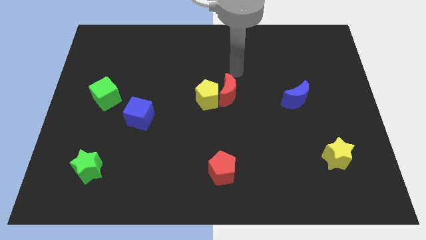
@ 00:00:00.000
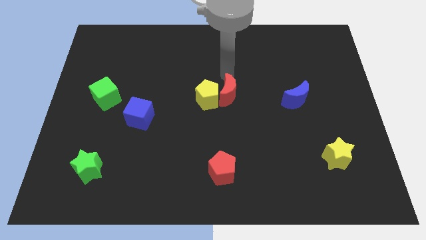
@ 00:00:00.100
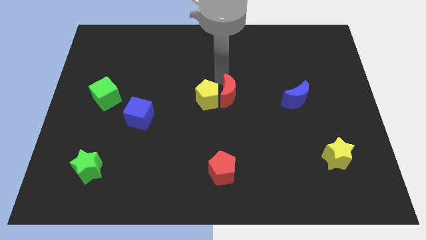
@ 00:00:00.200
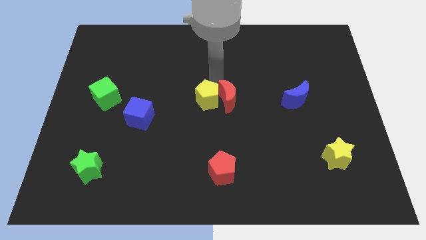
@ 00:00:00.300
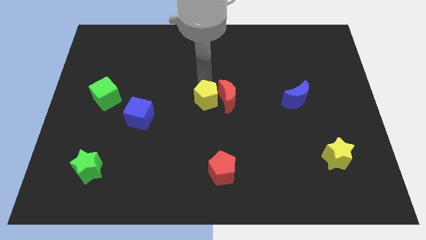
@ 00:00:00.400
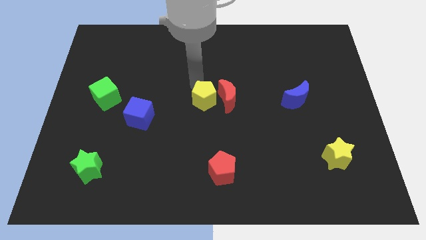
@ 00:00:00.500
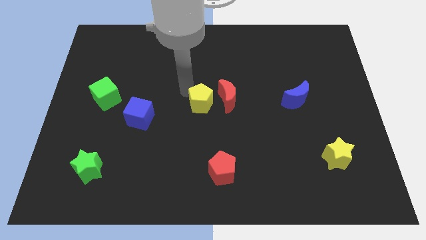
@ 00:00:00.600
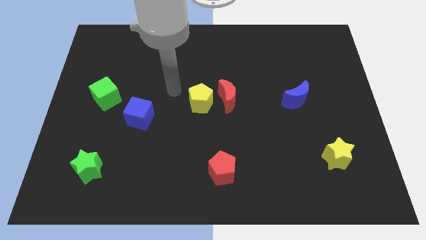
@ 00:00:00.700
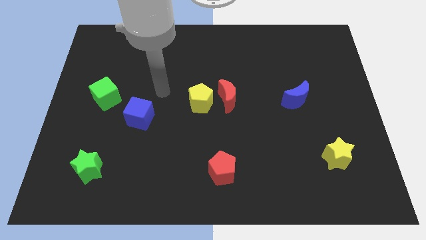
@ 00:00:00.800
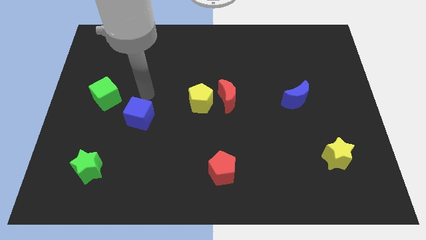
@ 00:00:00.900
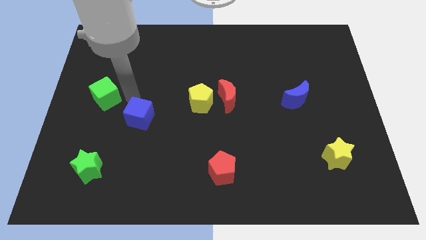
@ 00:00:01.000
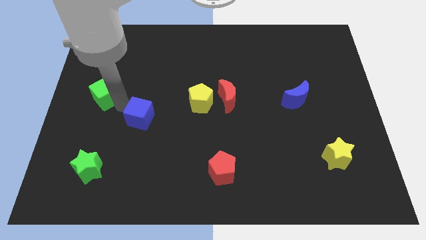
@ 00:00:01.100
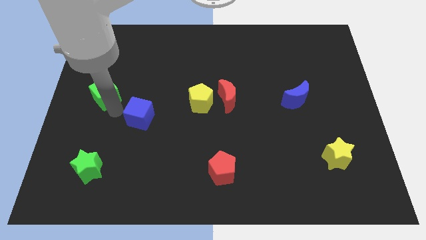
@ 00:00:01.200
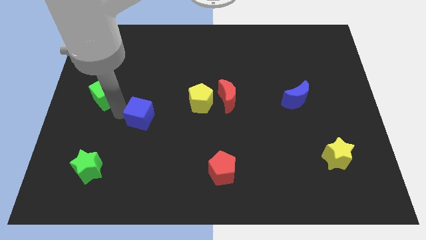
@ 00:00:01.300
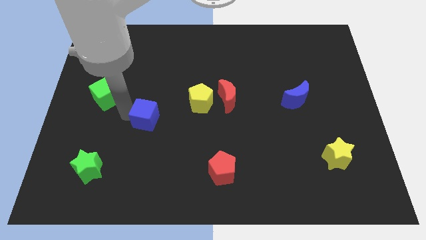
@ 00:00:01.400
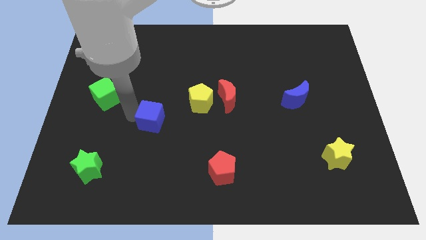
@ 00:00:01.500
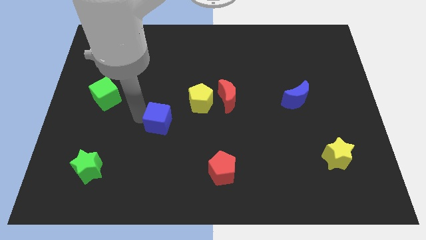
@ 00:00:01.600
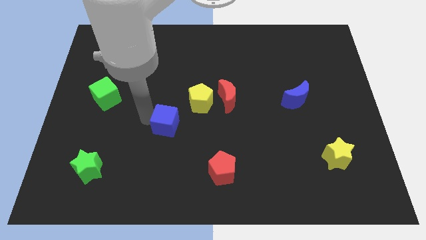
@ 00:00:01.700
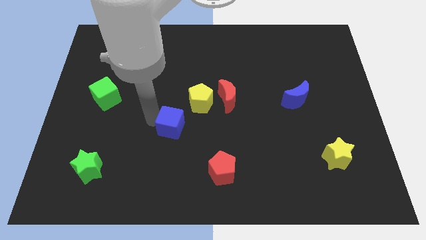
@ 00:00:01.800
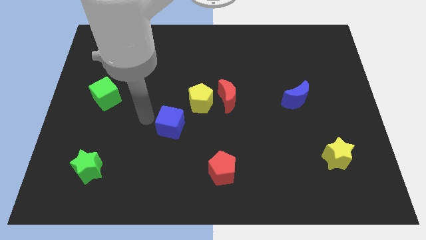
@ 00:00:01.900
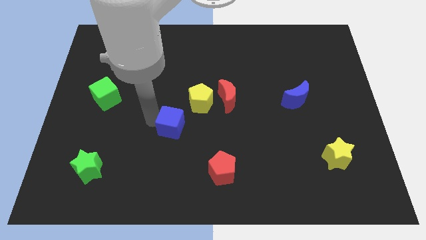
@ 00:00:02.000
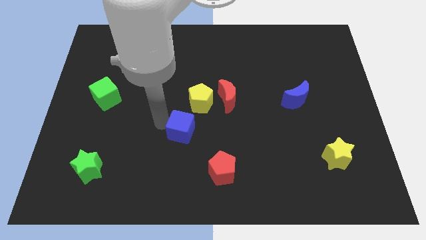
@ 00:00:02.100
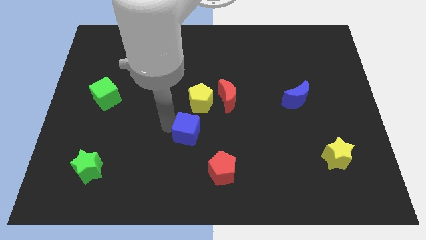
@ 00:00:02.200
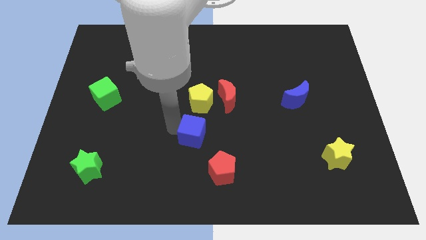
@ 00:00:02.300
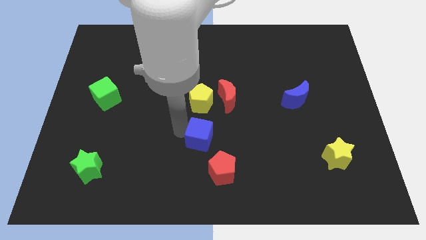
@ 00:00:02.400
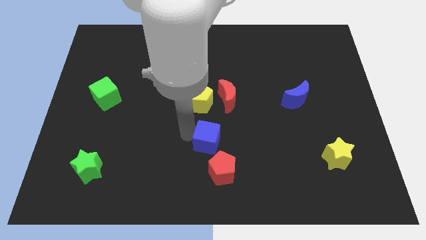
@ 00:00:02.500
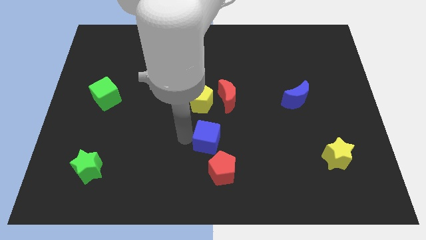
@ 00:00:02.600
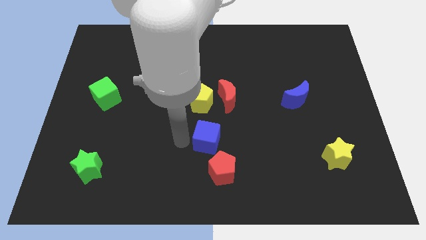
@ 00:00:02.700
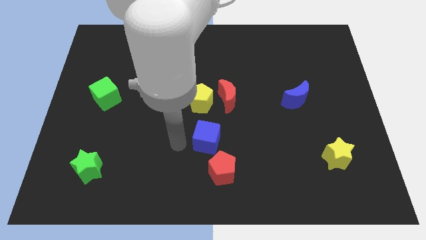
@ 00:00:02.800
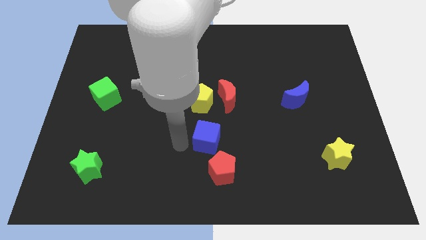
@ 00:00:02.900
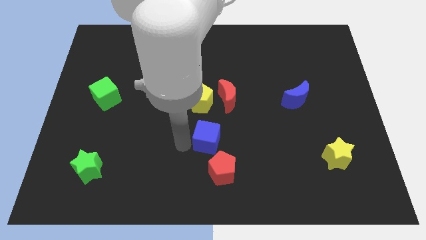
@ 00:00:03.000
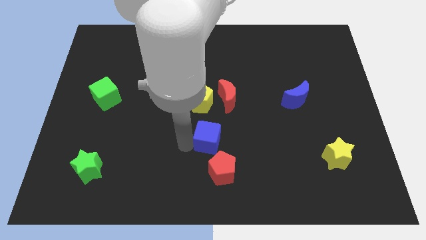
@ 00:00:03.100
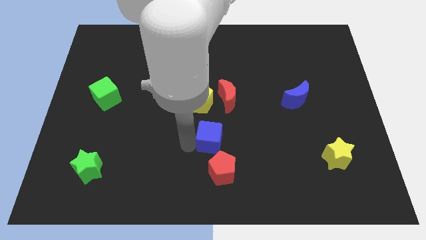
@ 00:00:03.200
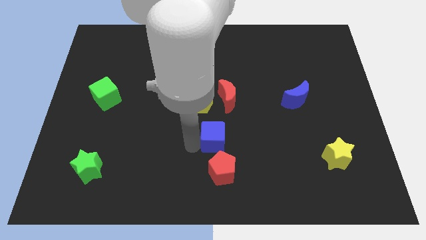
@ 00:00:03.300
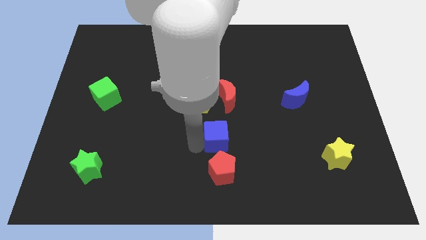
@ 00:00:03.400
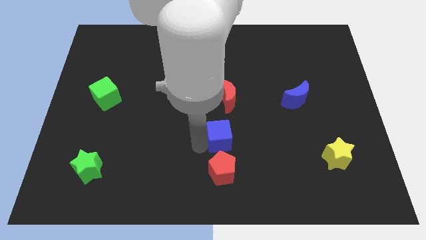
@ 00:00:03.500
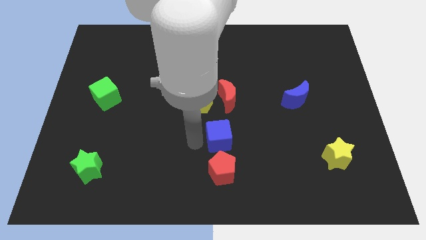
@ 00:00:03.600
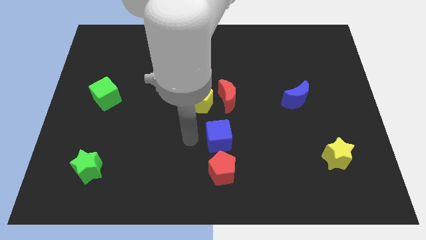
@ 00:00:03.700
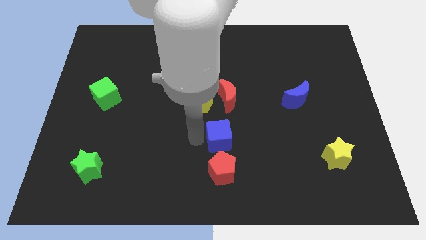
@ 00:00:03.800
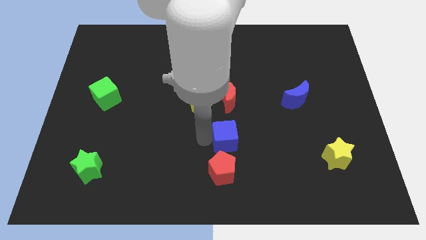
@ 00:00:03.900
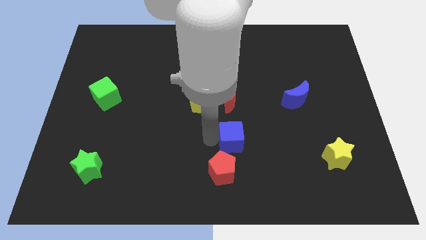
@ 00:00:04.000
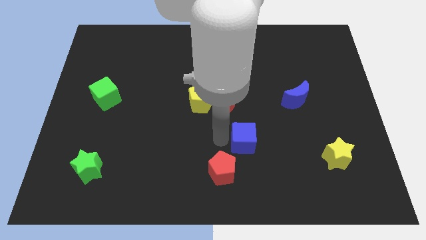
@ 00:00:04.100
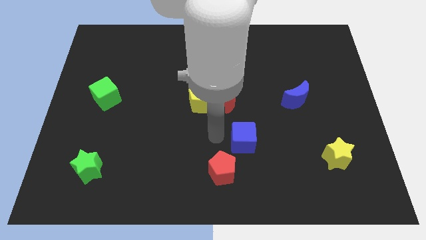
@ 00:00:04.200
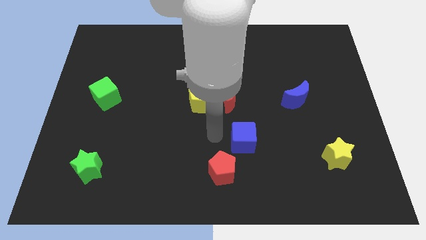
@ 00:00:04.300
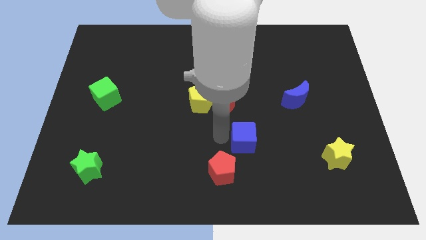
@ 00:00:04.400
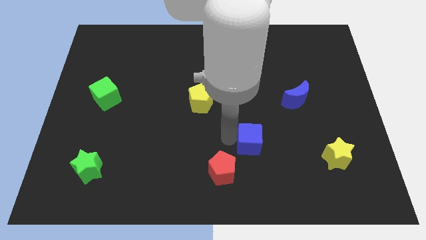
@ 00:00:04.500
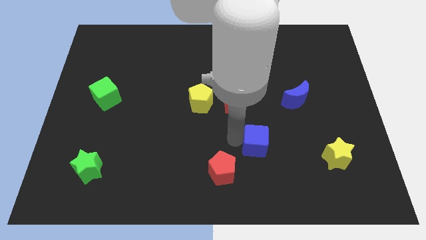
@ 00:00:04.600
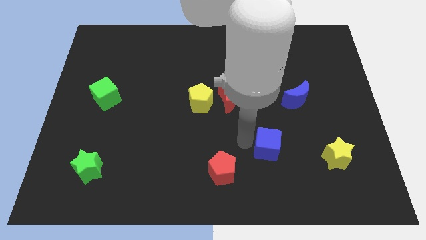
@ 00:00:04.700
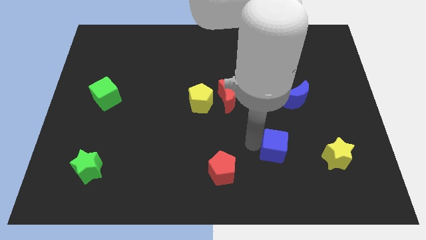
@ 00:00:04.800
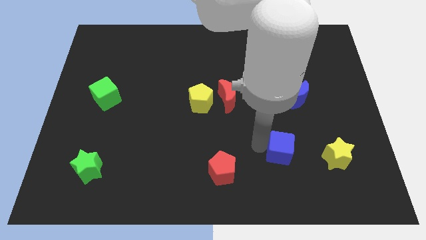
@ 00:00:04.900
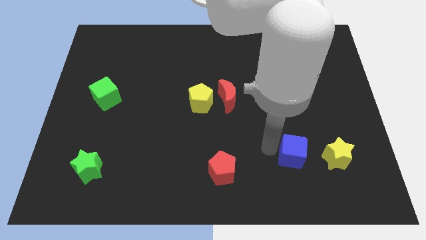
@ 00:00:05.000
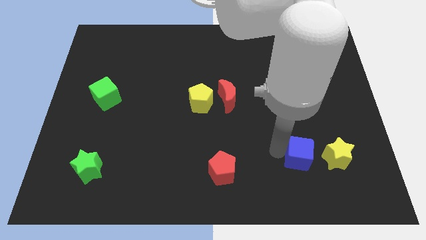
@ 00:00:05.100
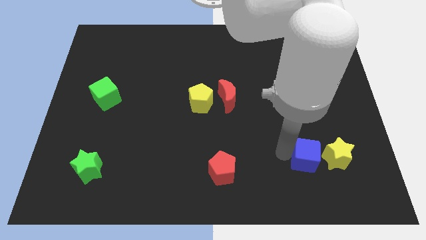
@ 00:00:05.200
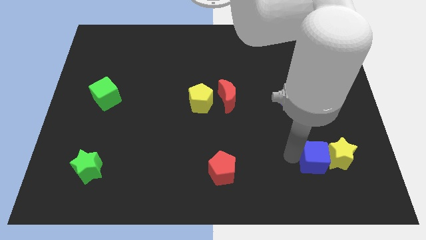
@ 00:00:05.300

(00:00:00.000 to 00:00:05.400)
slide the blue cube close to the yellow star

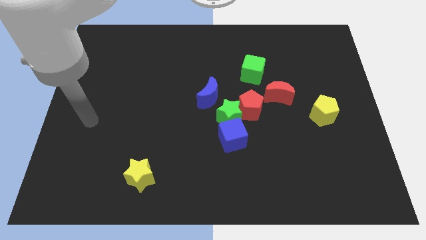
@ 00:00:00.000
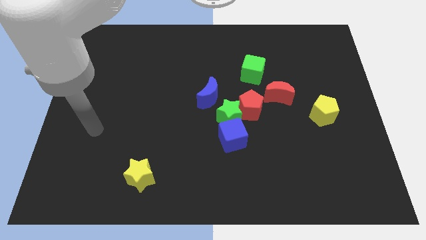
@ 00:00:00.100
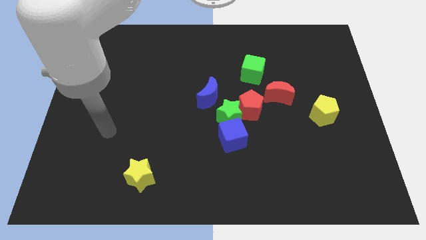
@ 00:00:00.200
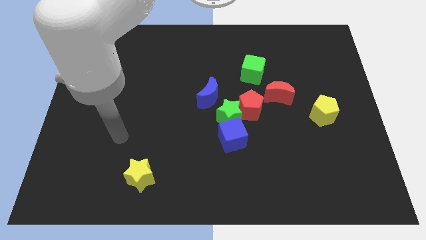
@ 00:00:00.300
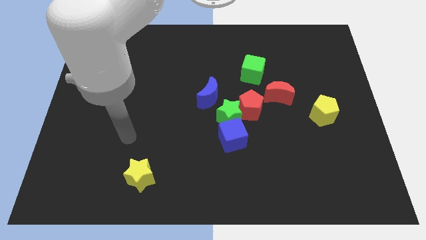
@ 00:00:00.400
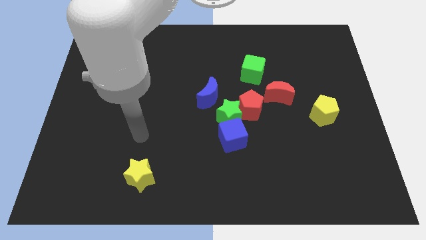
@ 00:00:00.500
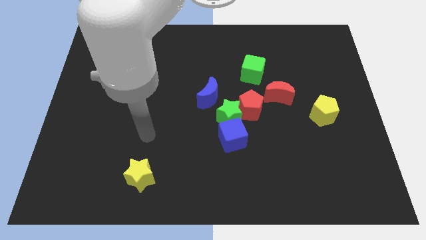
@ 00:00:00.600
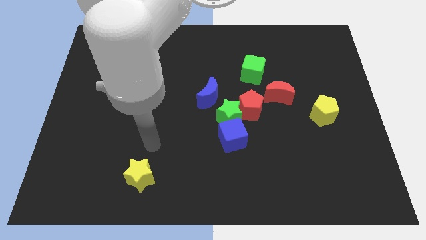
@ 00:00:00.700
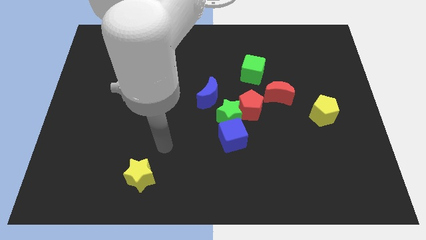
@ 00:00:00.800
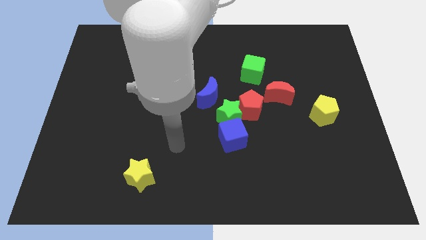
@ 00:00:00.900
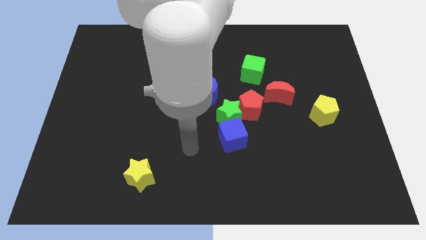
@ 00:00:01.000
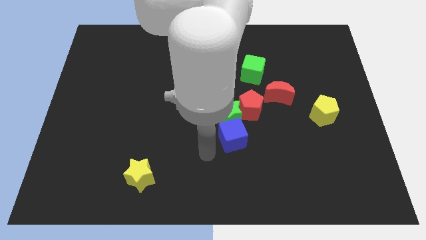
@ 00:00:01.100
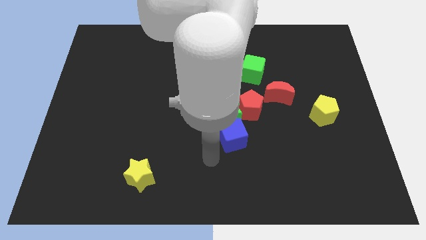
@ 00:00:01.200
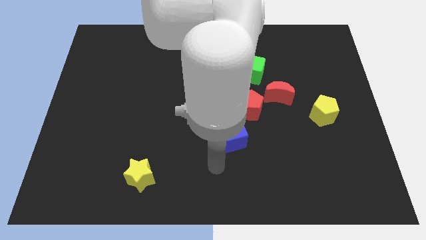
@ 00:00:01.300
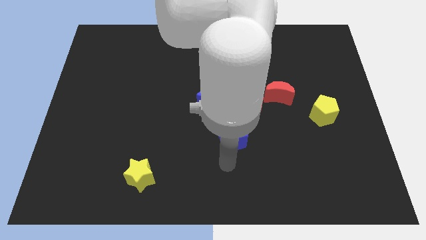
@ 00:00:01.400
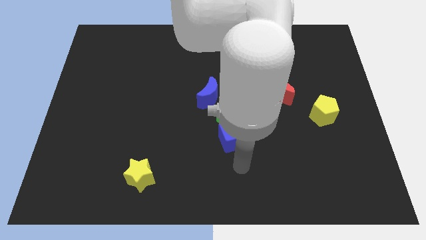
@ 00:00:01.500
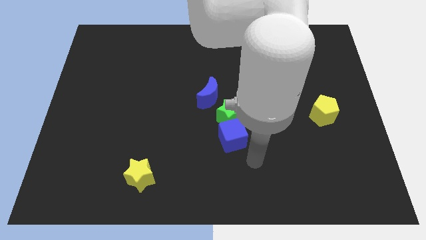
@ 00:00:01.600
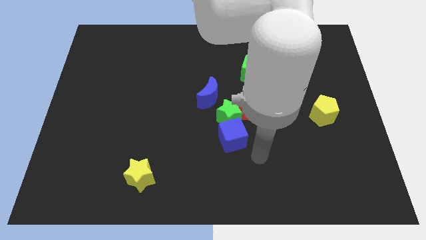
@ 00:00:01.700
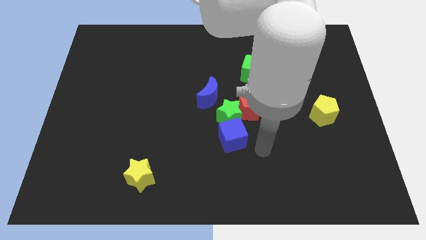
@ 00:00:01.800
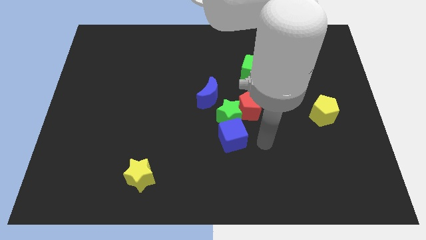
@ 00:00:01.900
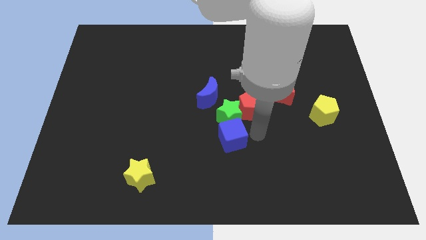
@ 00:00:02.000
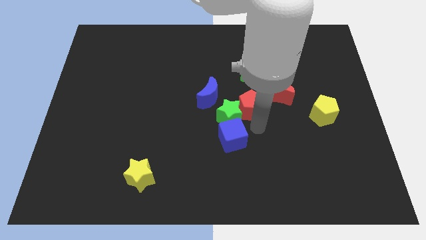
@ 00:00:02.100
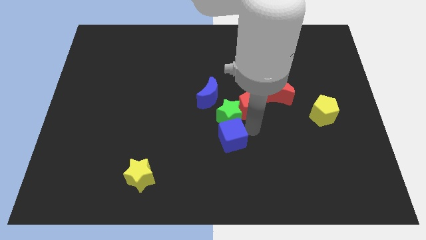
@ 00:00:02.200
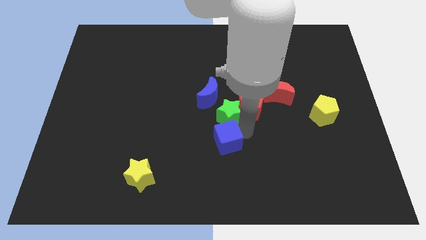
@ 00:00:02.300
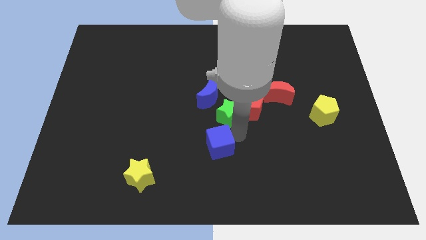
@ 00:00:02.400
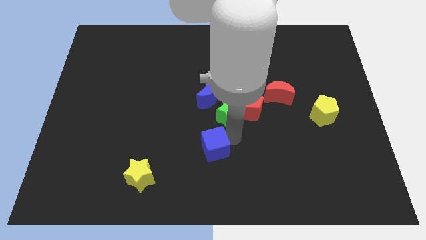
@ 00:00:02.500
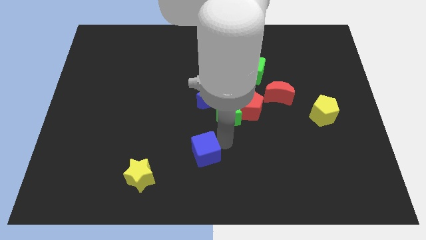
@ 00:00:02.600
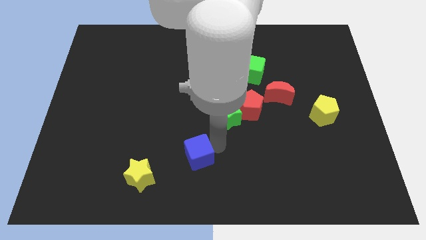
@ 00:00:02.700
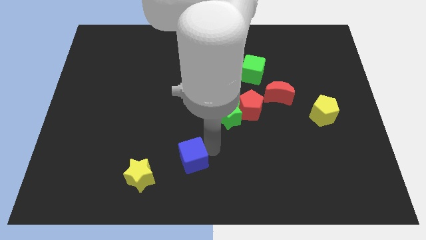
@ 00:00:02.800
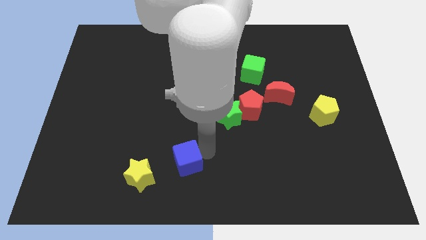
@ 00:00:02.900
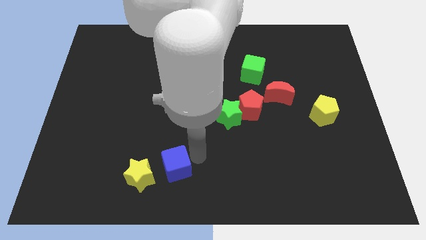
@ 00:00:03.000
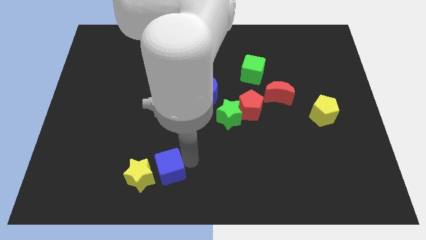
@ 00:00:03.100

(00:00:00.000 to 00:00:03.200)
push the blue cube close to the yellow star
